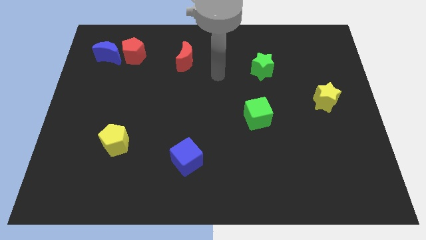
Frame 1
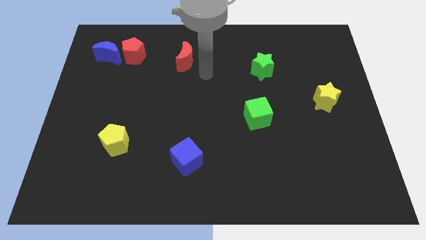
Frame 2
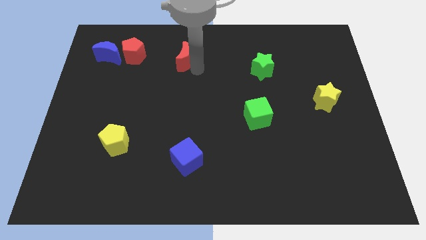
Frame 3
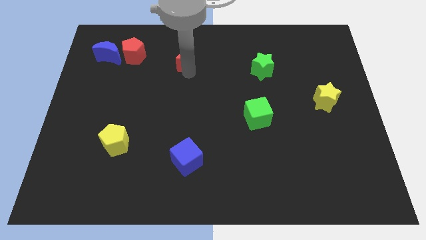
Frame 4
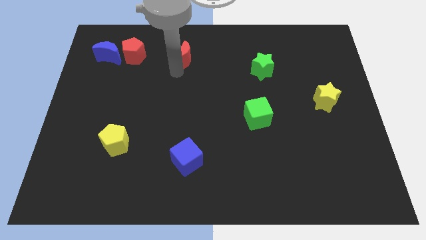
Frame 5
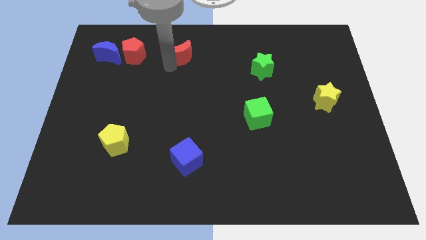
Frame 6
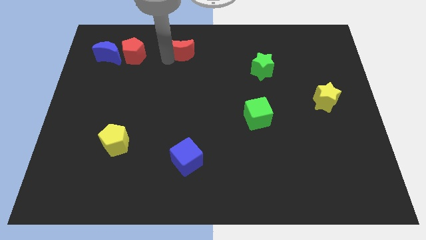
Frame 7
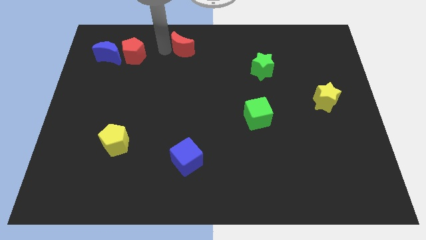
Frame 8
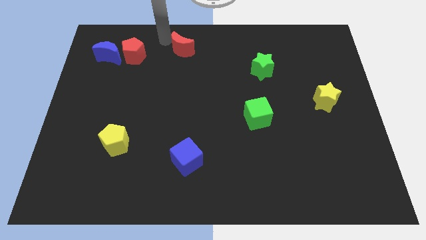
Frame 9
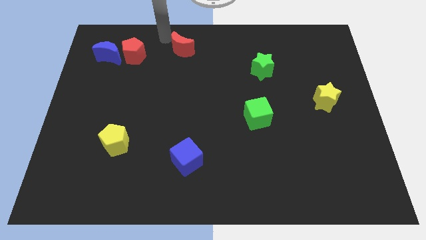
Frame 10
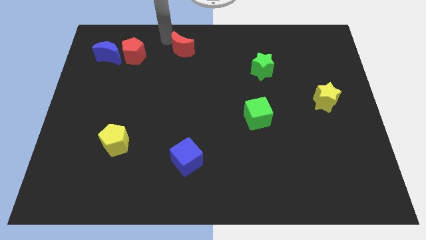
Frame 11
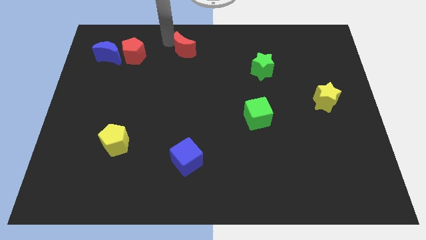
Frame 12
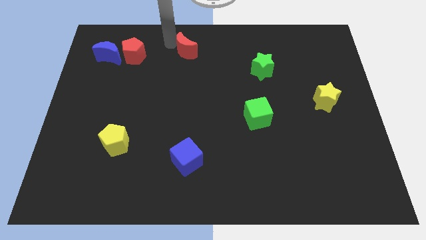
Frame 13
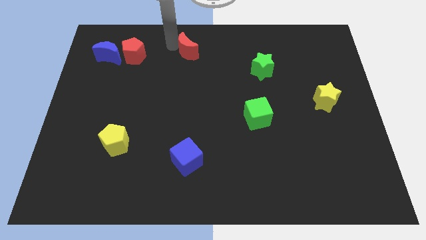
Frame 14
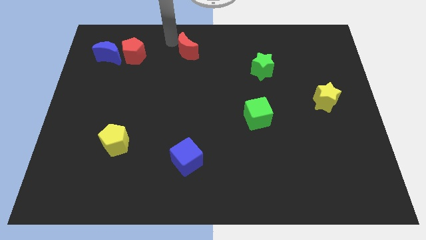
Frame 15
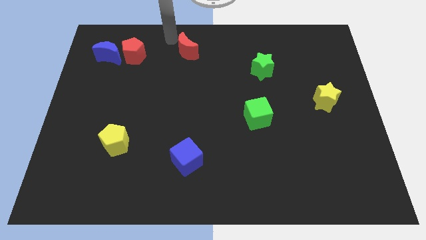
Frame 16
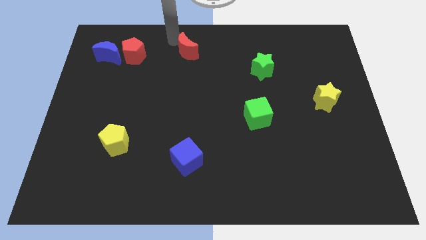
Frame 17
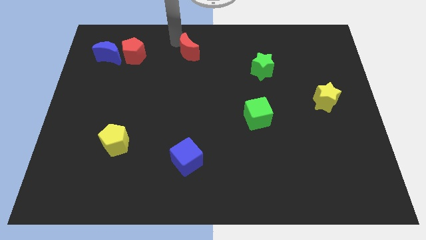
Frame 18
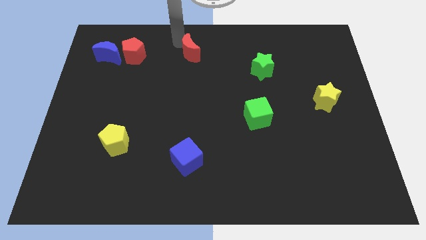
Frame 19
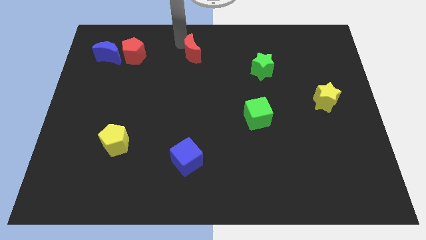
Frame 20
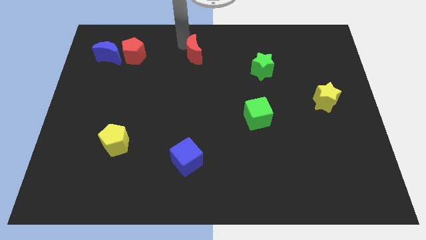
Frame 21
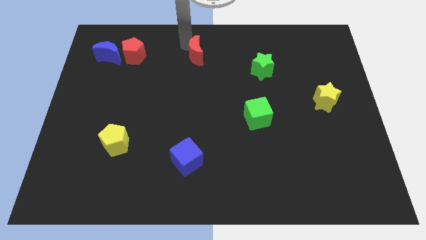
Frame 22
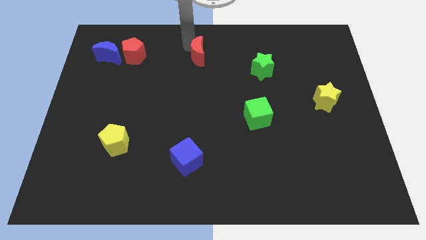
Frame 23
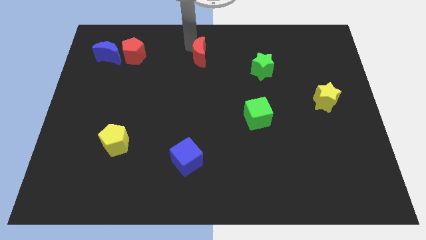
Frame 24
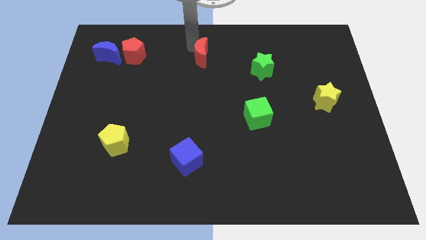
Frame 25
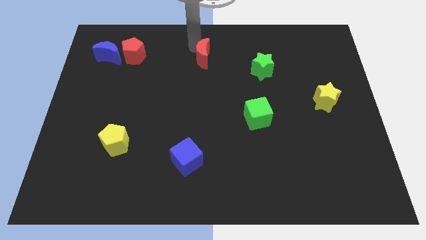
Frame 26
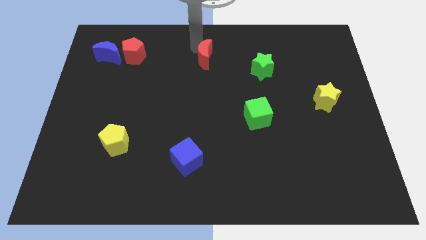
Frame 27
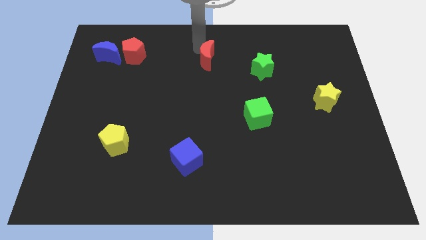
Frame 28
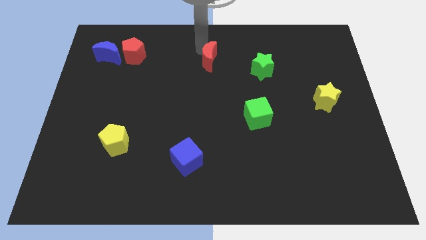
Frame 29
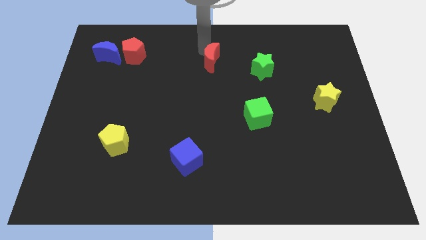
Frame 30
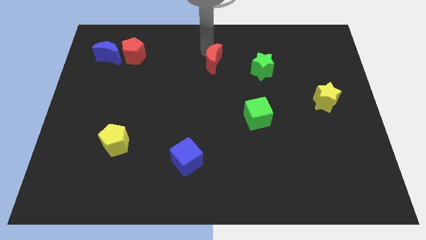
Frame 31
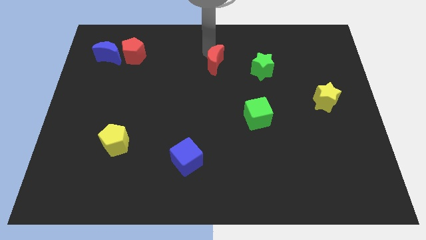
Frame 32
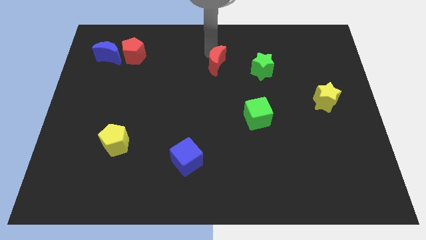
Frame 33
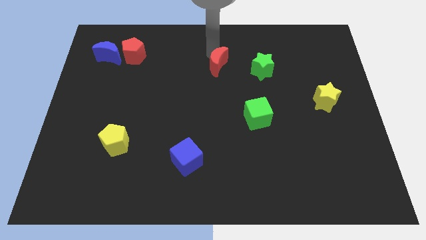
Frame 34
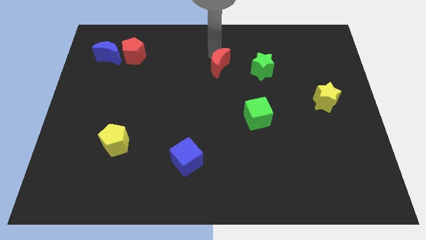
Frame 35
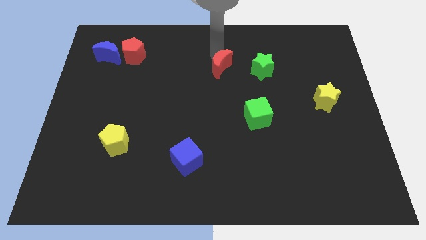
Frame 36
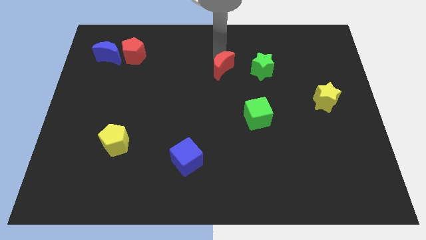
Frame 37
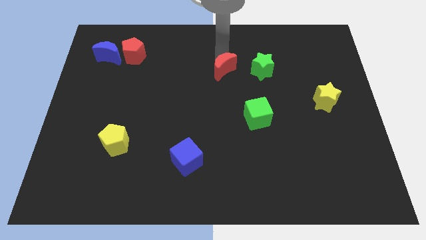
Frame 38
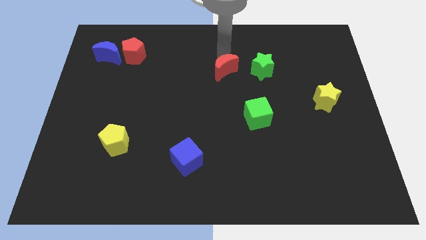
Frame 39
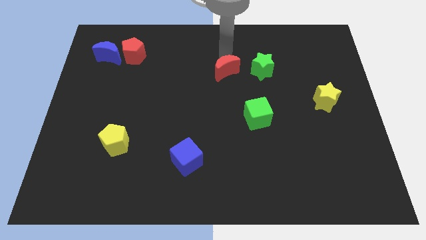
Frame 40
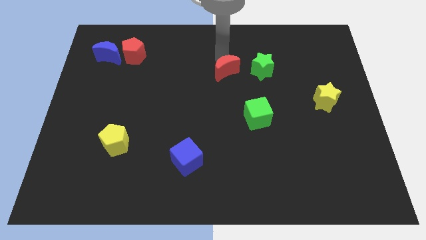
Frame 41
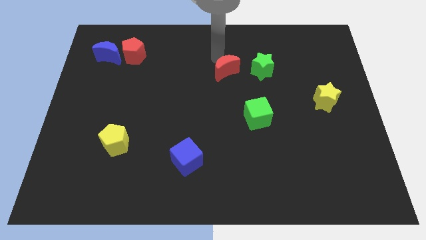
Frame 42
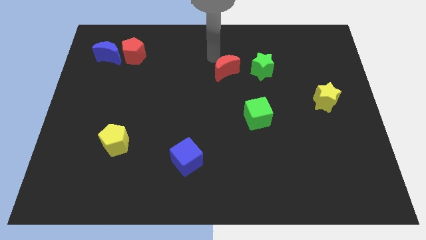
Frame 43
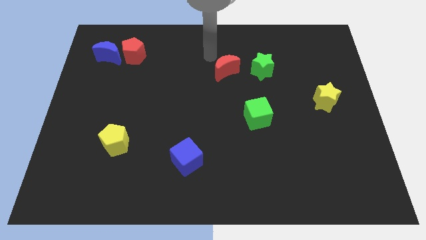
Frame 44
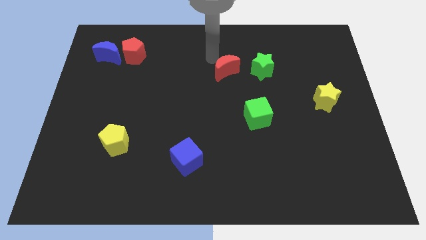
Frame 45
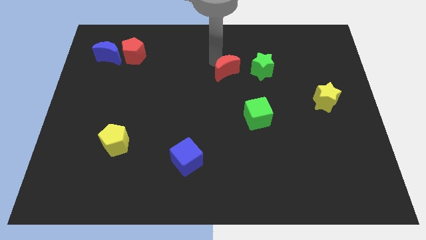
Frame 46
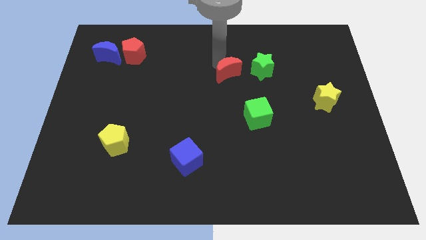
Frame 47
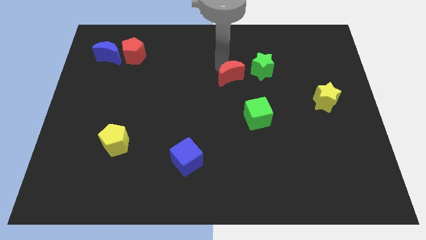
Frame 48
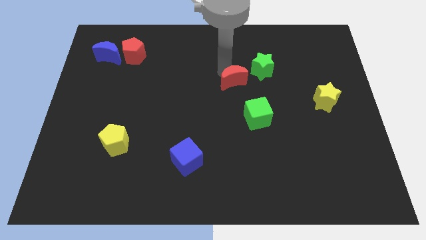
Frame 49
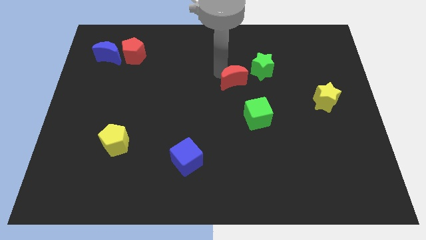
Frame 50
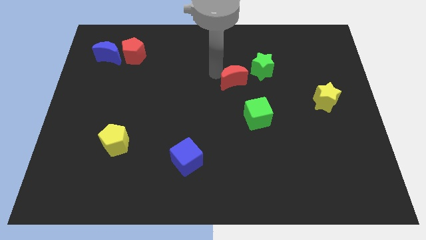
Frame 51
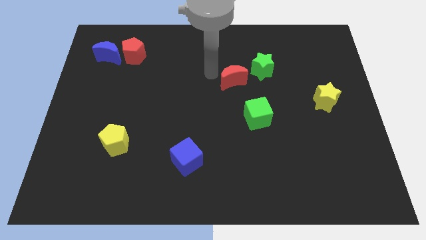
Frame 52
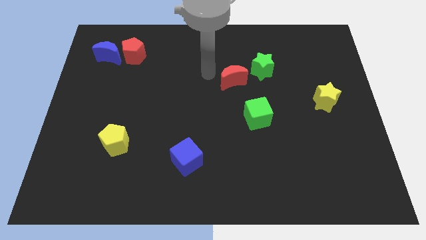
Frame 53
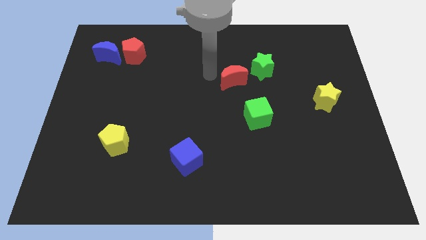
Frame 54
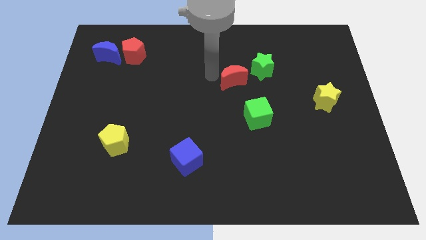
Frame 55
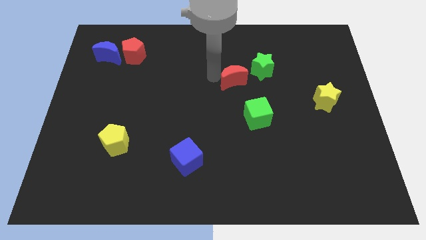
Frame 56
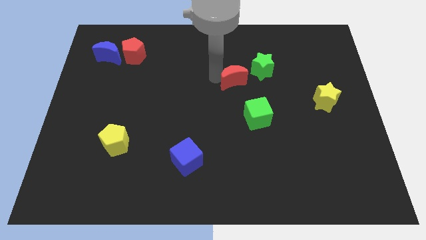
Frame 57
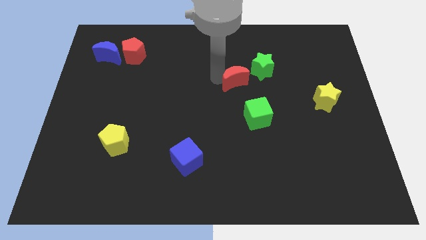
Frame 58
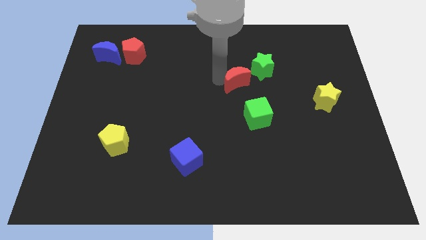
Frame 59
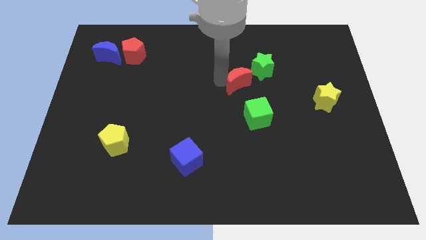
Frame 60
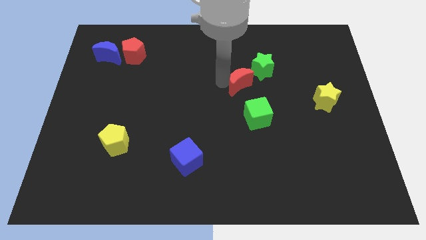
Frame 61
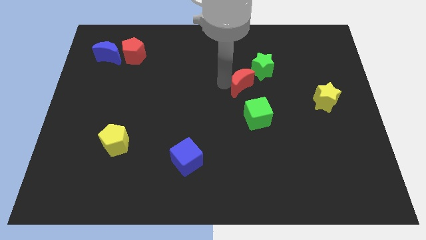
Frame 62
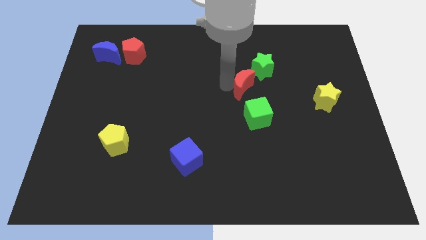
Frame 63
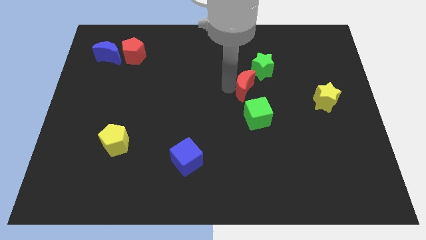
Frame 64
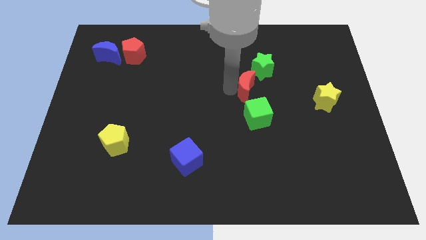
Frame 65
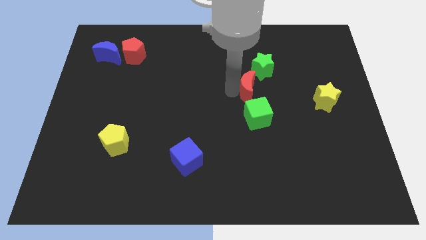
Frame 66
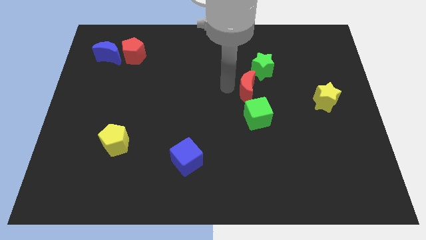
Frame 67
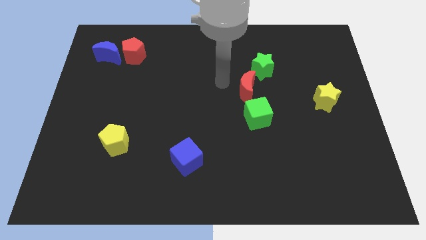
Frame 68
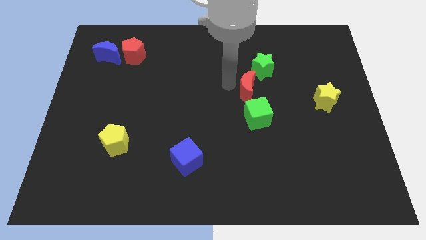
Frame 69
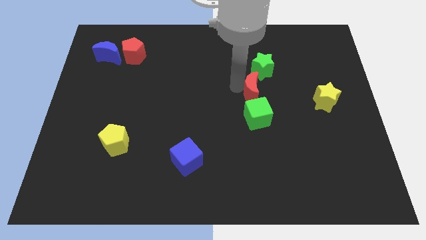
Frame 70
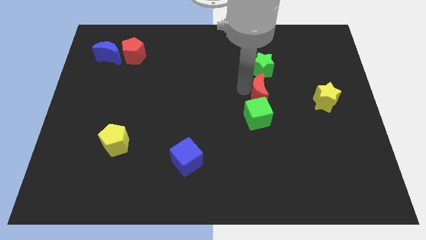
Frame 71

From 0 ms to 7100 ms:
move the red moon diagonally up and to the right of the green cube
